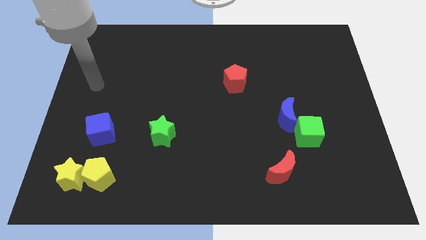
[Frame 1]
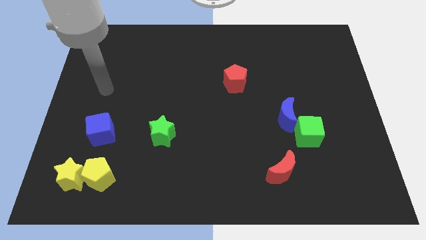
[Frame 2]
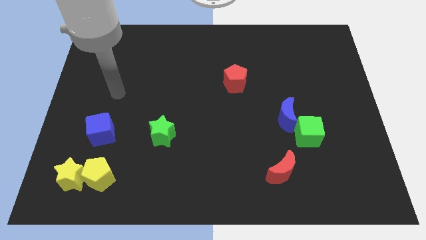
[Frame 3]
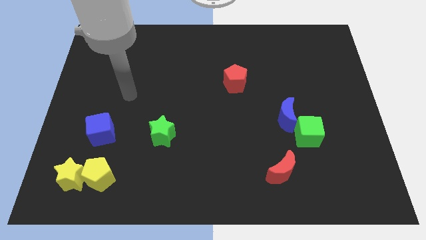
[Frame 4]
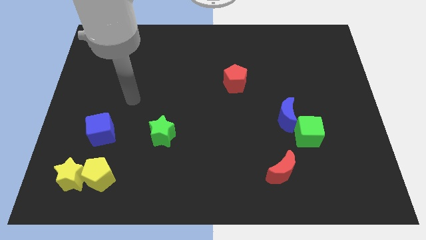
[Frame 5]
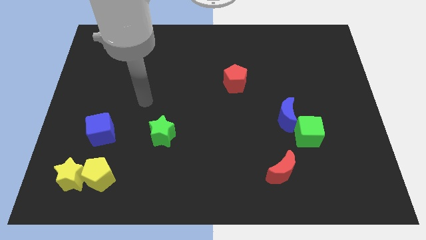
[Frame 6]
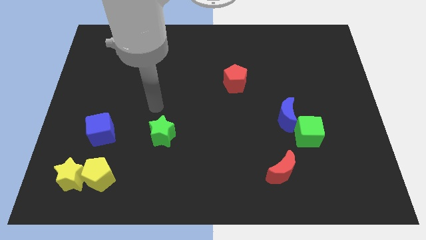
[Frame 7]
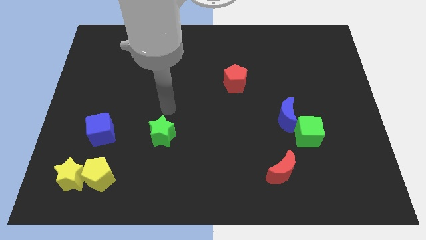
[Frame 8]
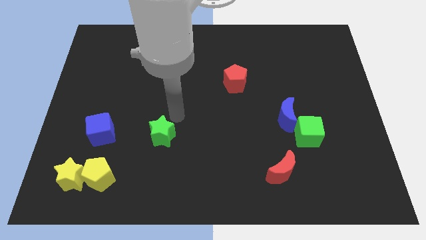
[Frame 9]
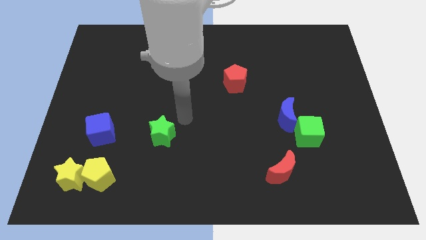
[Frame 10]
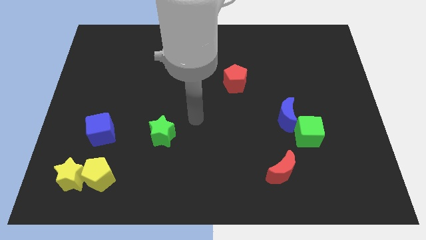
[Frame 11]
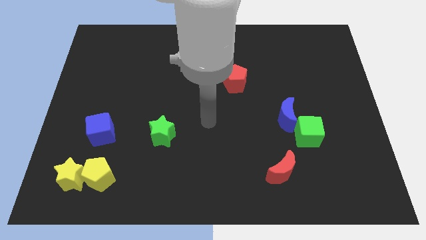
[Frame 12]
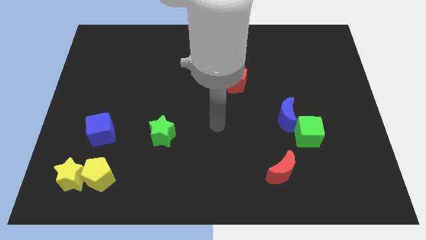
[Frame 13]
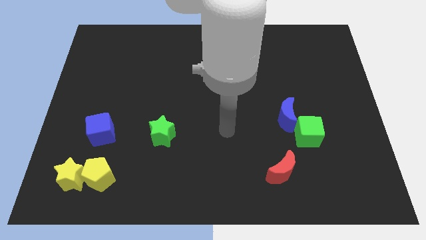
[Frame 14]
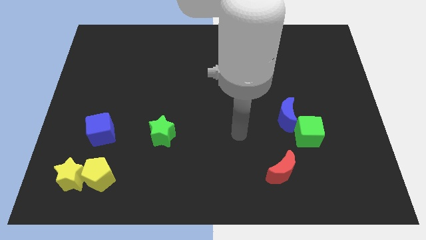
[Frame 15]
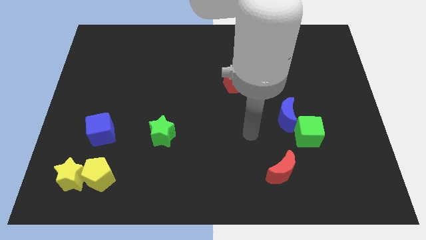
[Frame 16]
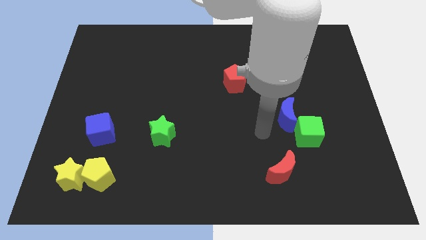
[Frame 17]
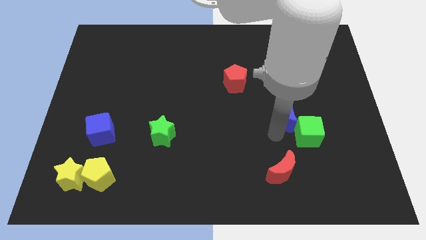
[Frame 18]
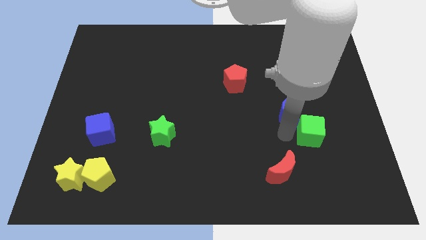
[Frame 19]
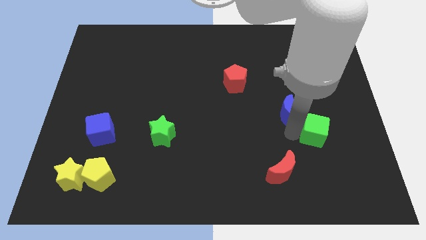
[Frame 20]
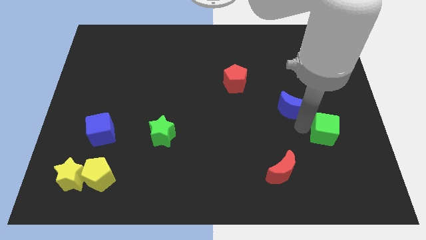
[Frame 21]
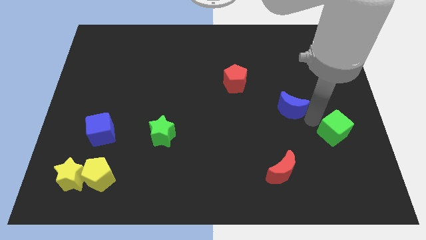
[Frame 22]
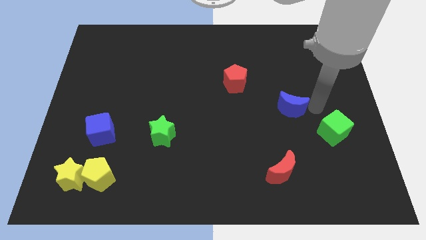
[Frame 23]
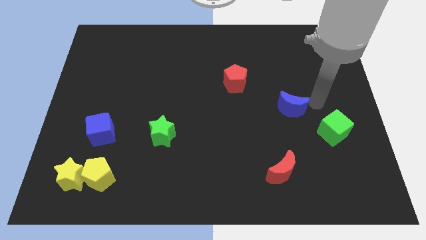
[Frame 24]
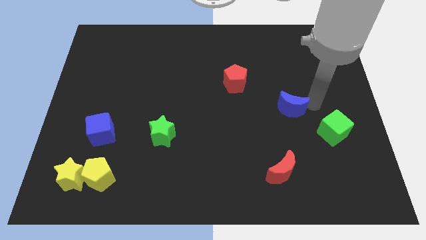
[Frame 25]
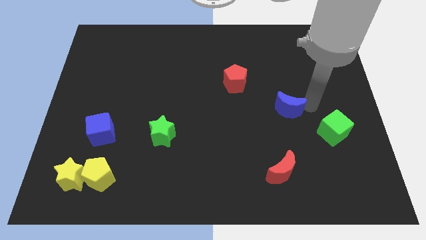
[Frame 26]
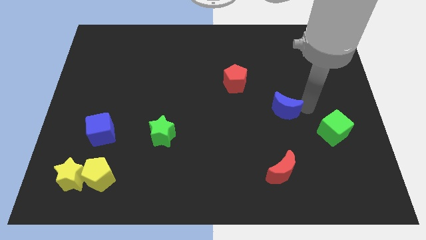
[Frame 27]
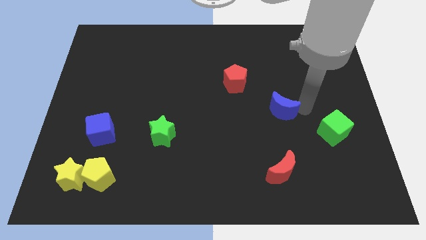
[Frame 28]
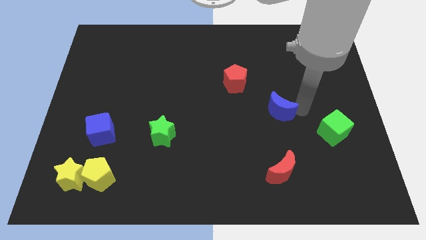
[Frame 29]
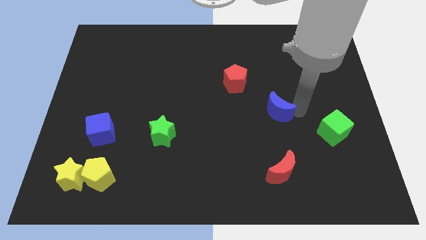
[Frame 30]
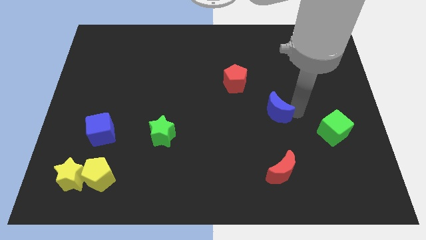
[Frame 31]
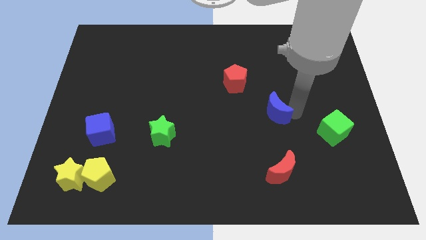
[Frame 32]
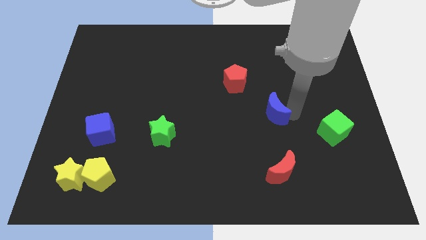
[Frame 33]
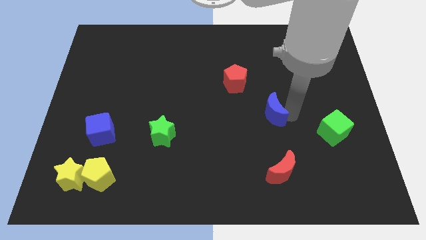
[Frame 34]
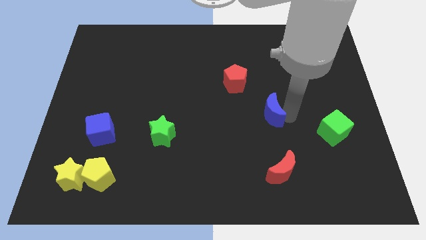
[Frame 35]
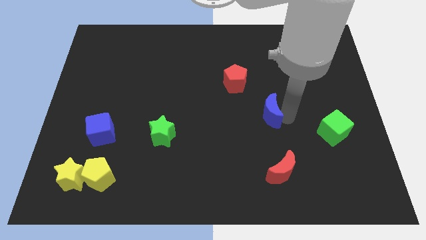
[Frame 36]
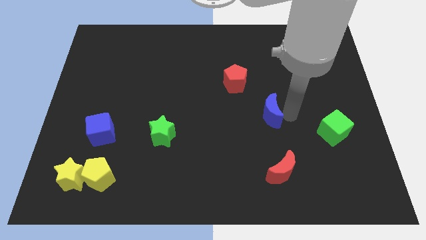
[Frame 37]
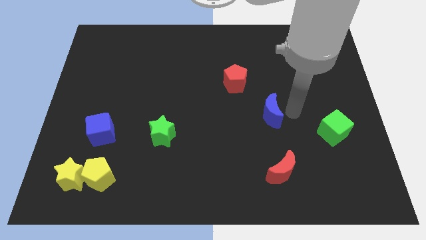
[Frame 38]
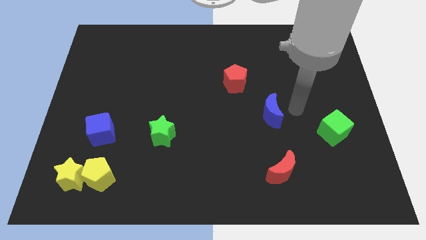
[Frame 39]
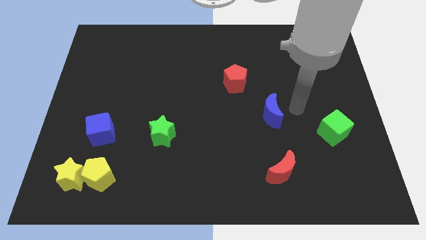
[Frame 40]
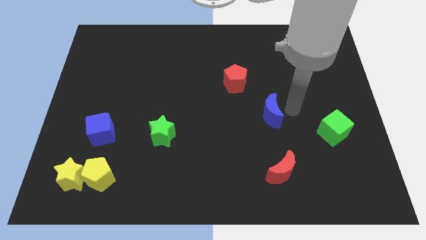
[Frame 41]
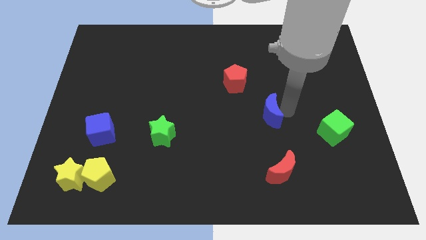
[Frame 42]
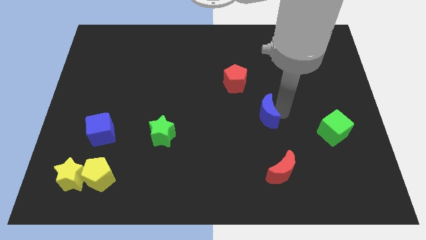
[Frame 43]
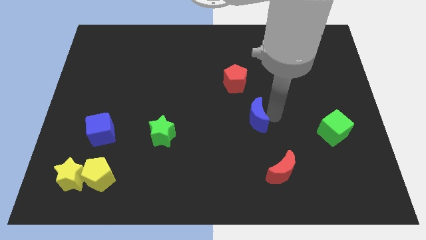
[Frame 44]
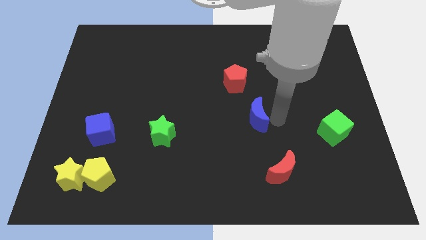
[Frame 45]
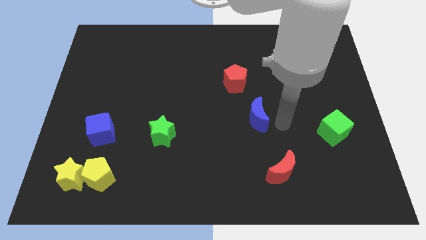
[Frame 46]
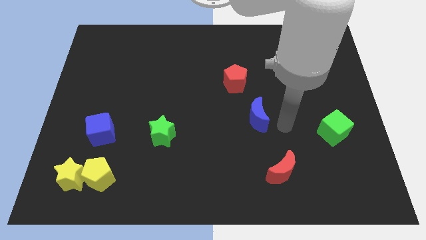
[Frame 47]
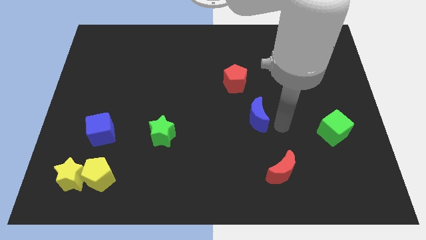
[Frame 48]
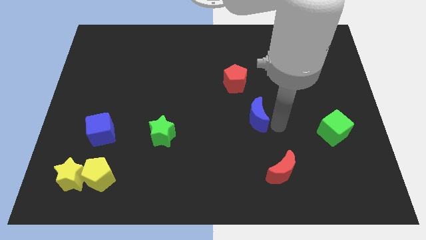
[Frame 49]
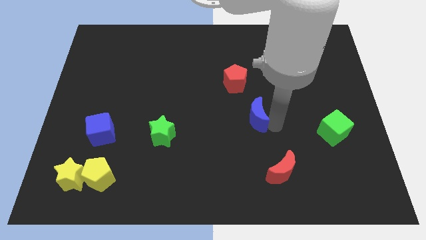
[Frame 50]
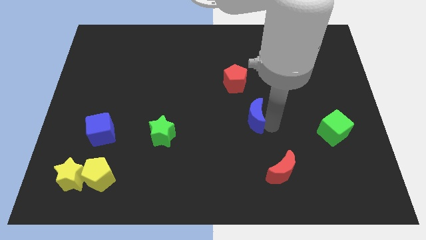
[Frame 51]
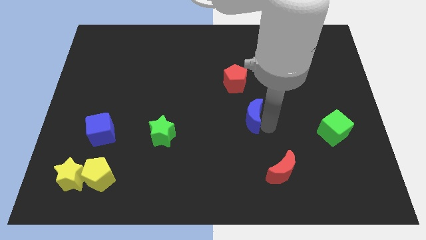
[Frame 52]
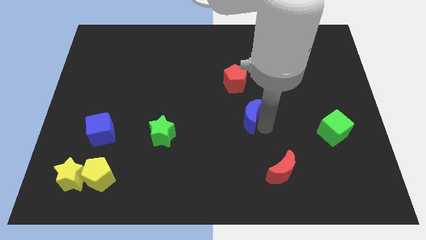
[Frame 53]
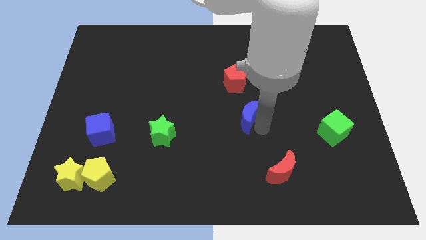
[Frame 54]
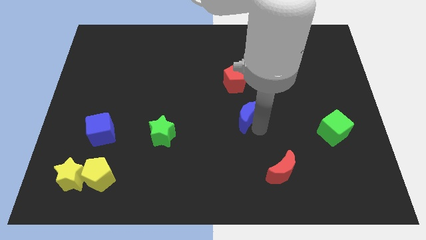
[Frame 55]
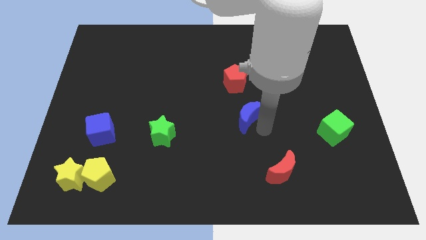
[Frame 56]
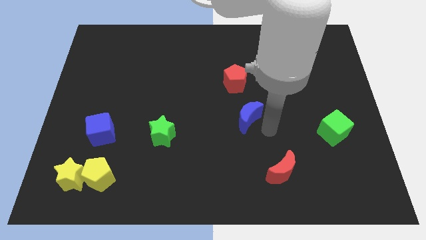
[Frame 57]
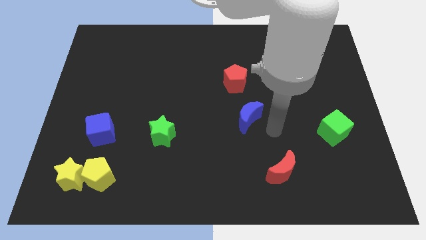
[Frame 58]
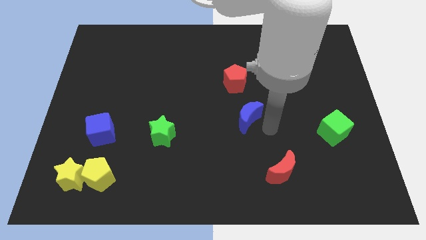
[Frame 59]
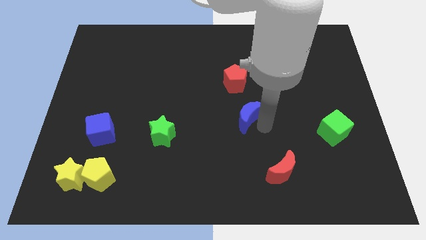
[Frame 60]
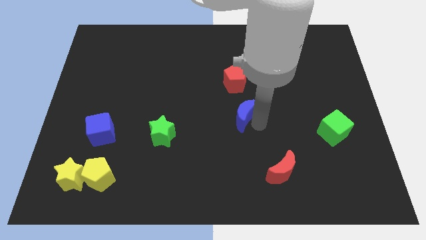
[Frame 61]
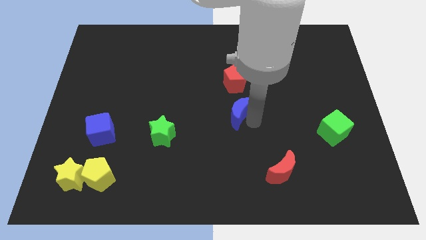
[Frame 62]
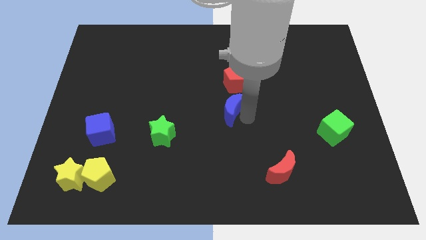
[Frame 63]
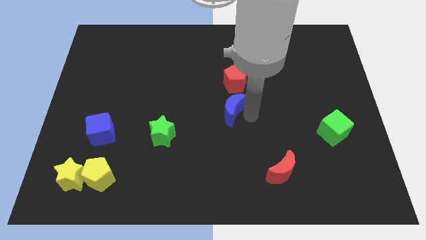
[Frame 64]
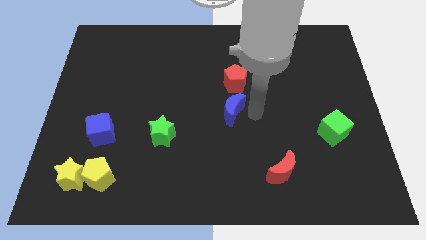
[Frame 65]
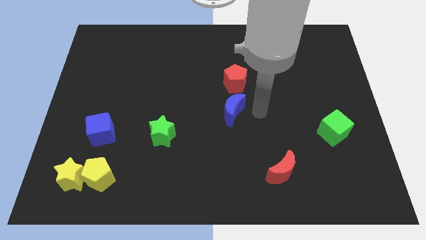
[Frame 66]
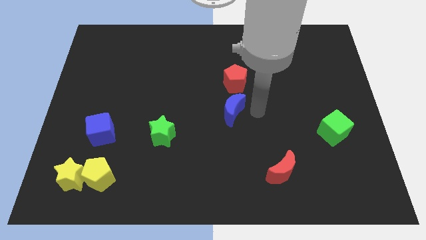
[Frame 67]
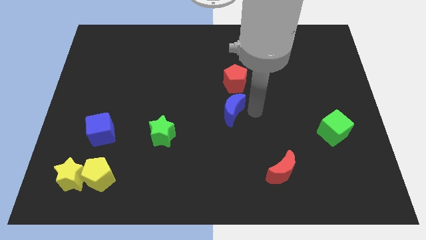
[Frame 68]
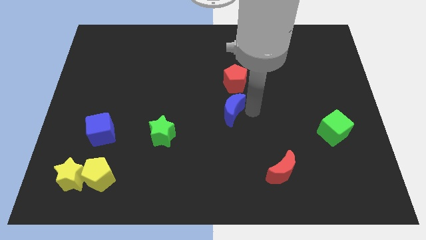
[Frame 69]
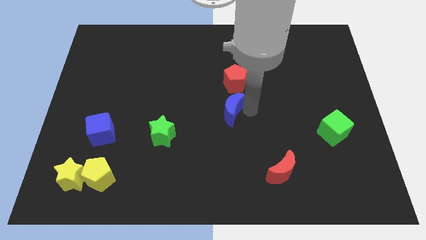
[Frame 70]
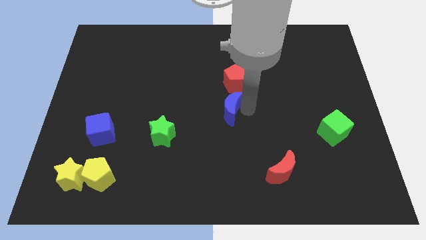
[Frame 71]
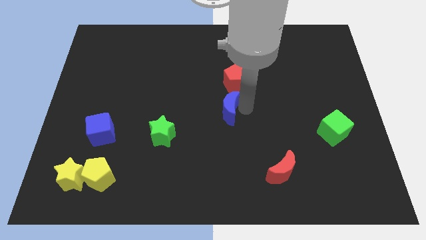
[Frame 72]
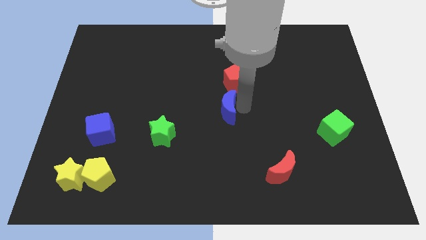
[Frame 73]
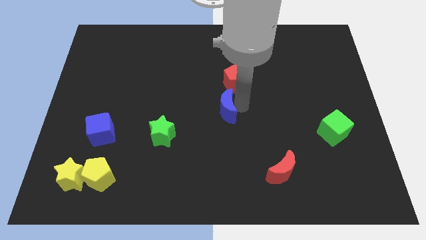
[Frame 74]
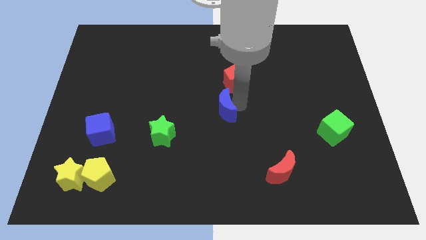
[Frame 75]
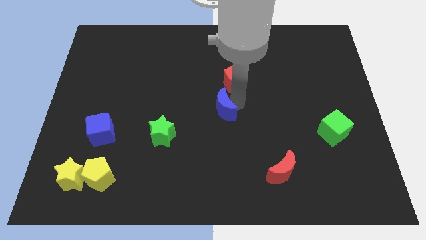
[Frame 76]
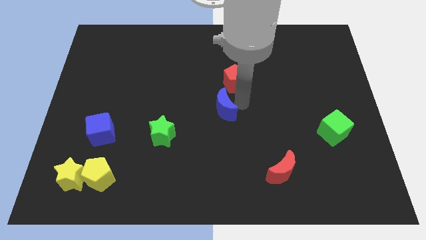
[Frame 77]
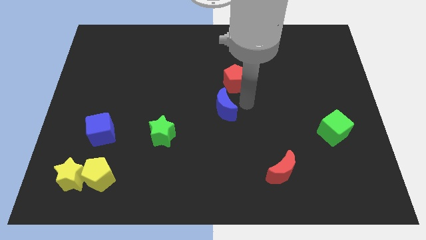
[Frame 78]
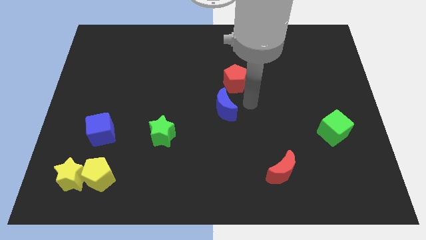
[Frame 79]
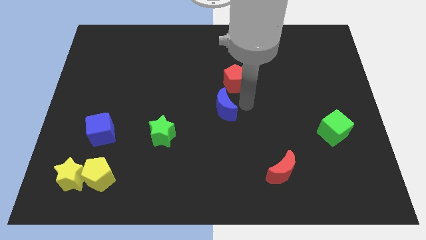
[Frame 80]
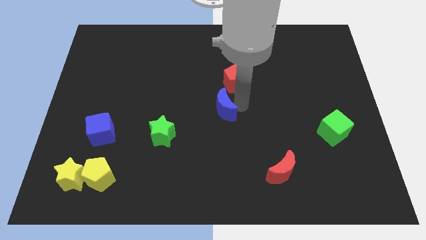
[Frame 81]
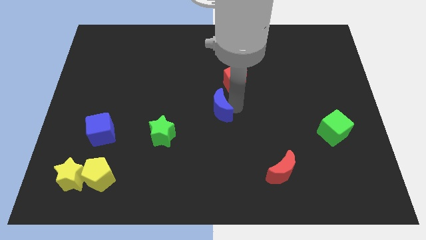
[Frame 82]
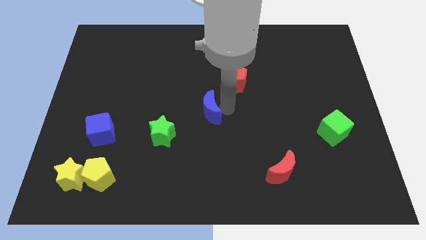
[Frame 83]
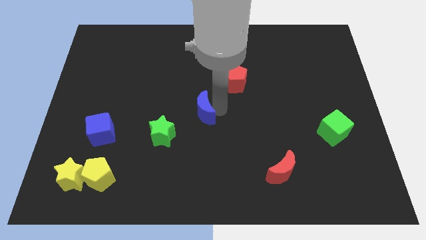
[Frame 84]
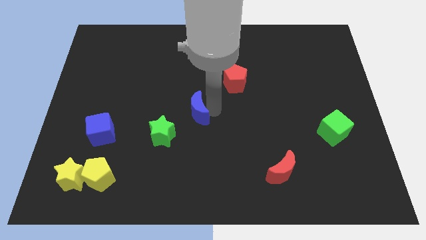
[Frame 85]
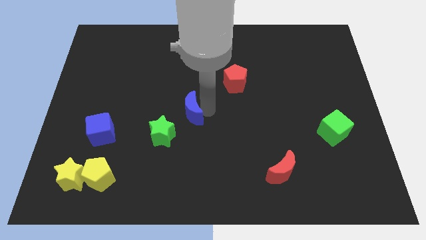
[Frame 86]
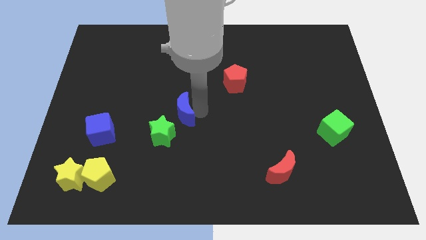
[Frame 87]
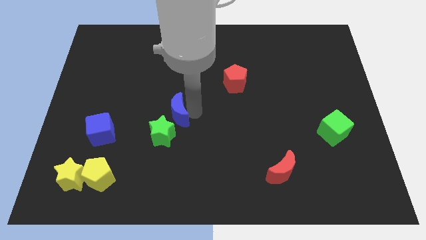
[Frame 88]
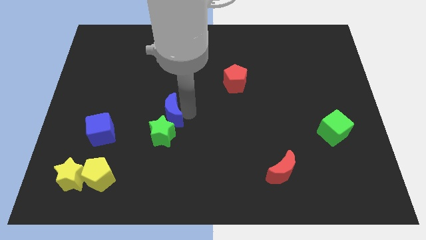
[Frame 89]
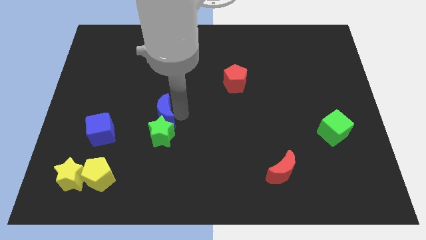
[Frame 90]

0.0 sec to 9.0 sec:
move the blue moon diagonally up and to the left of the green star
